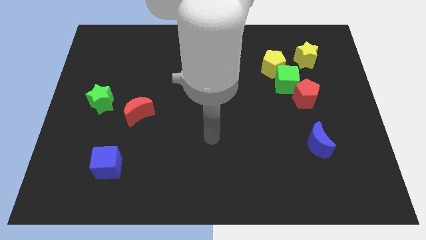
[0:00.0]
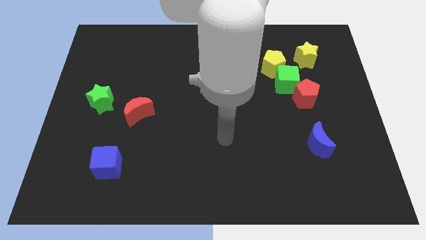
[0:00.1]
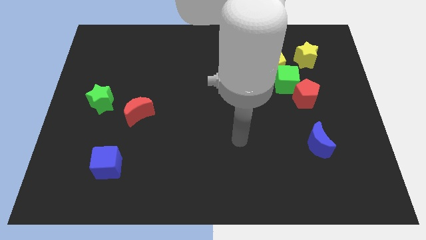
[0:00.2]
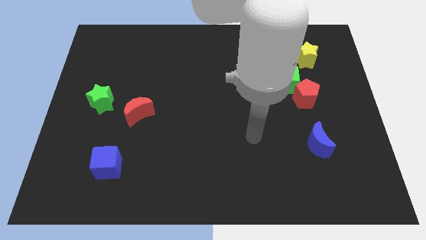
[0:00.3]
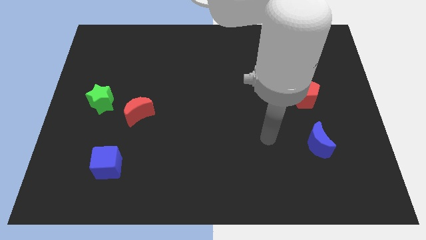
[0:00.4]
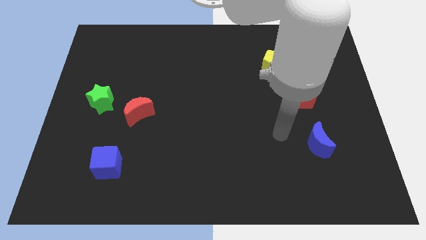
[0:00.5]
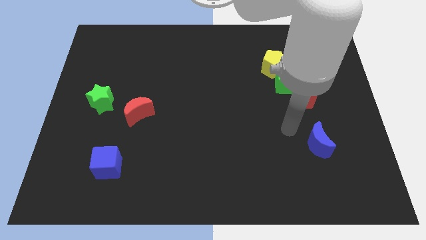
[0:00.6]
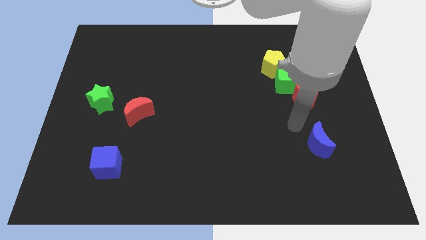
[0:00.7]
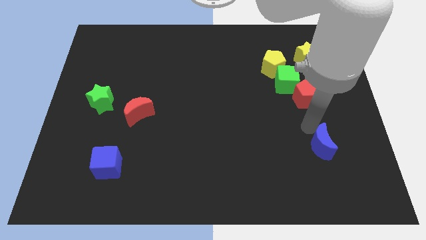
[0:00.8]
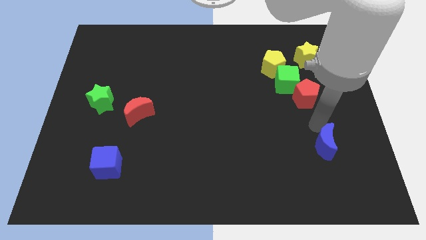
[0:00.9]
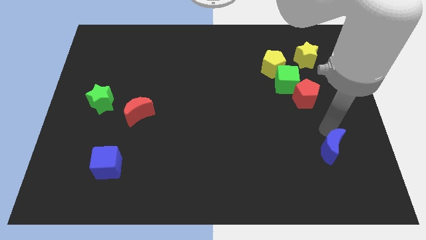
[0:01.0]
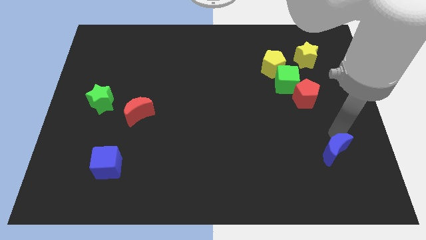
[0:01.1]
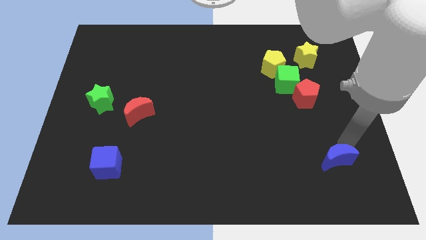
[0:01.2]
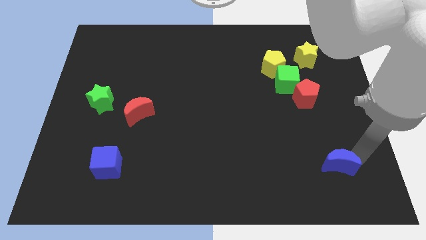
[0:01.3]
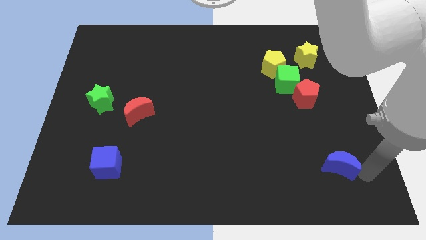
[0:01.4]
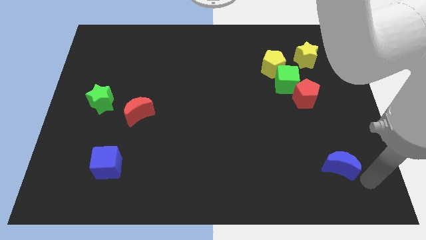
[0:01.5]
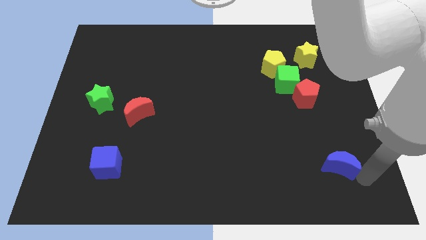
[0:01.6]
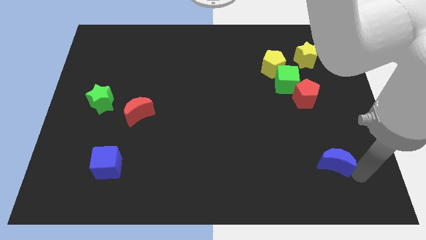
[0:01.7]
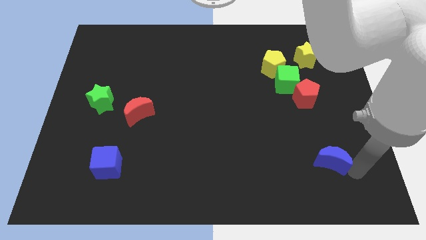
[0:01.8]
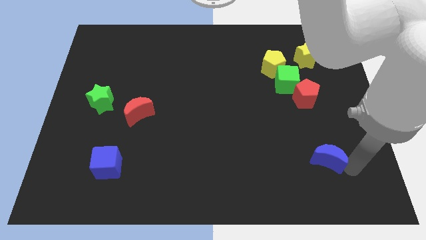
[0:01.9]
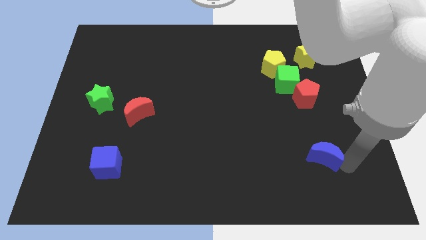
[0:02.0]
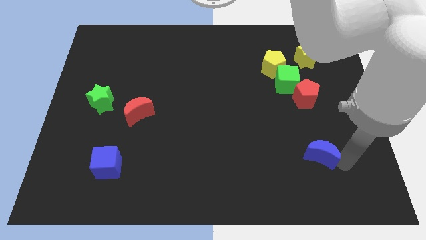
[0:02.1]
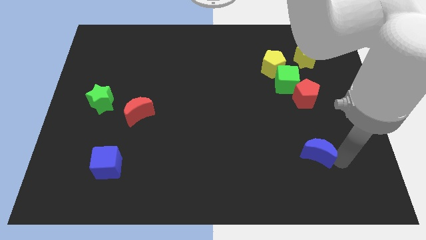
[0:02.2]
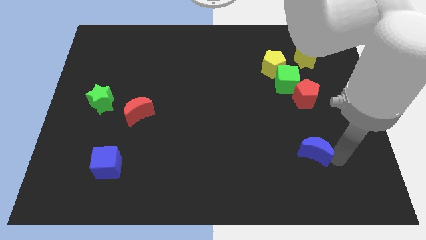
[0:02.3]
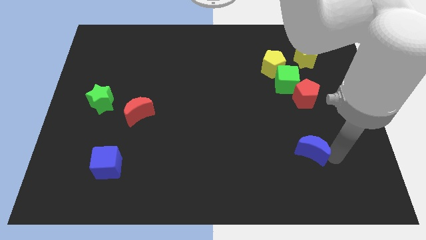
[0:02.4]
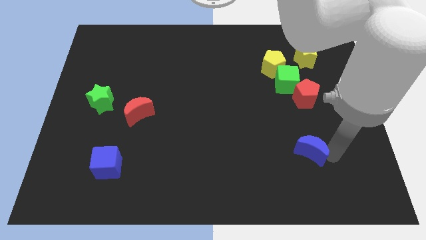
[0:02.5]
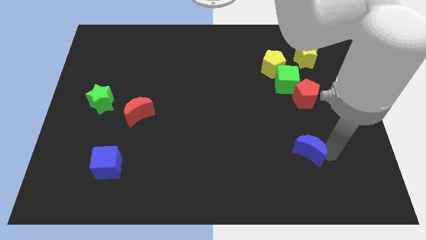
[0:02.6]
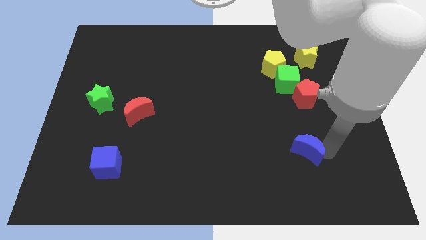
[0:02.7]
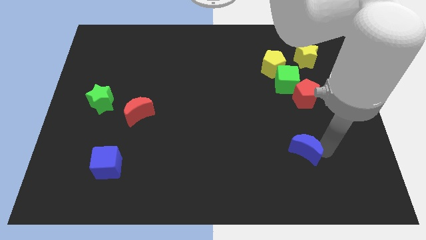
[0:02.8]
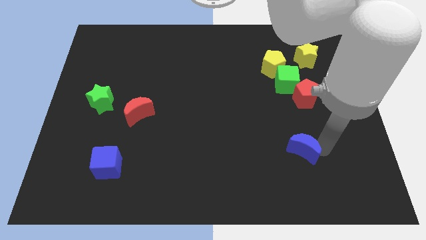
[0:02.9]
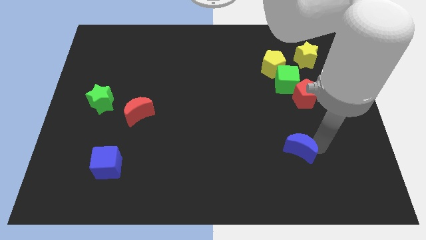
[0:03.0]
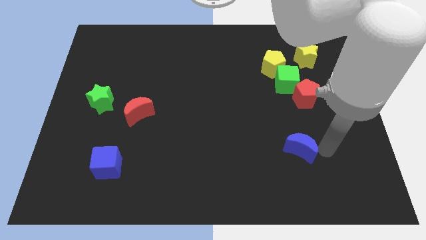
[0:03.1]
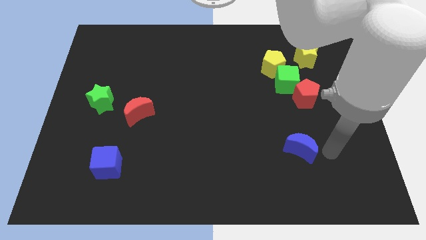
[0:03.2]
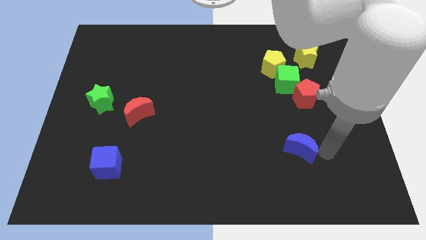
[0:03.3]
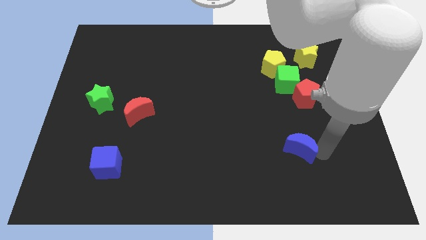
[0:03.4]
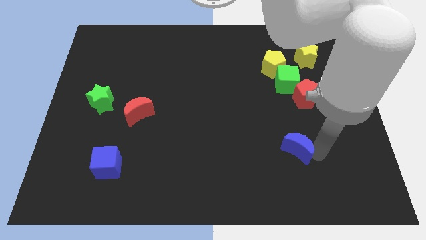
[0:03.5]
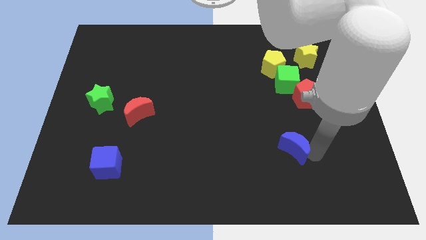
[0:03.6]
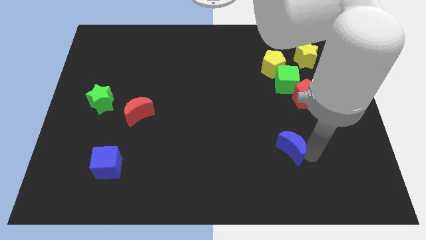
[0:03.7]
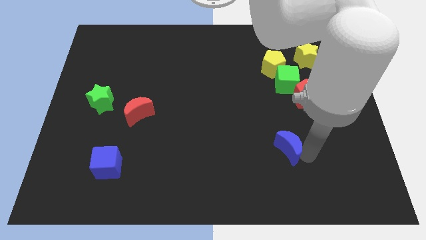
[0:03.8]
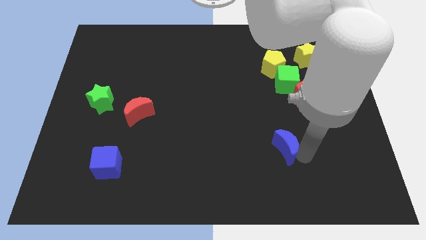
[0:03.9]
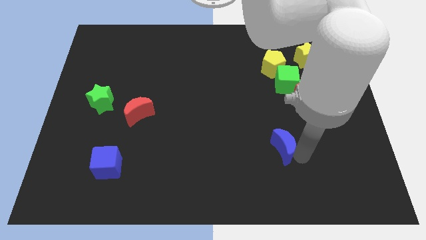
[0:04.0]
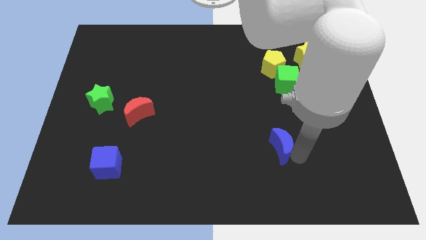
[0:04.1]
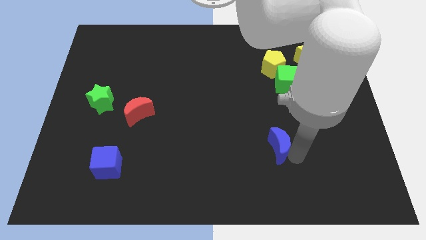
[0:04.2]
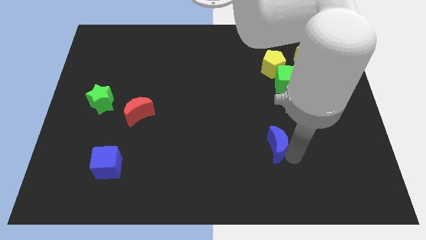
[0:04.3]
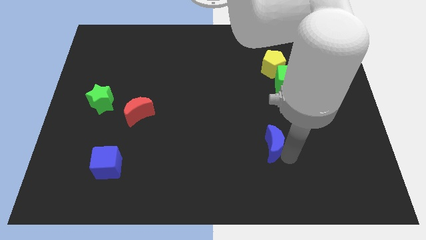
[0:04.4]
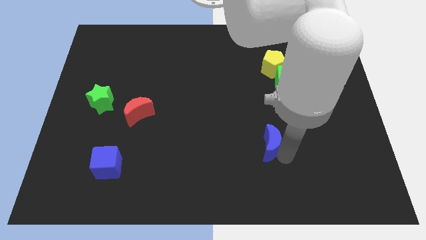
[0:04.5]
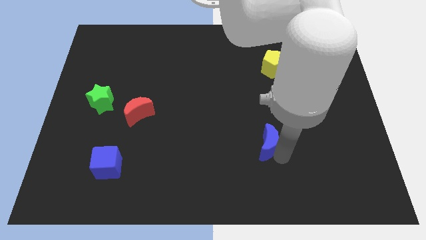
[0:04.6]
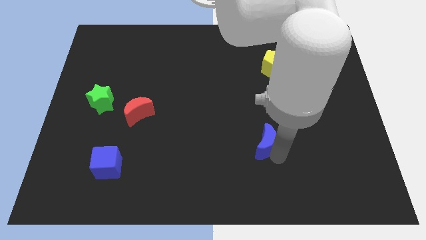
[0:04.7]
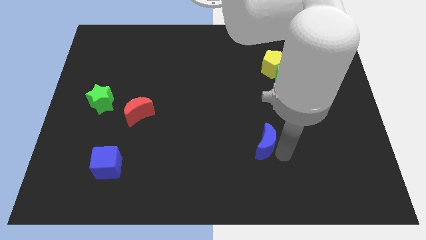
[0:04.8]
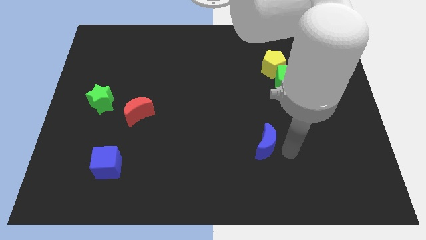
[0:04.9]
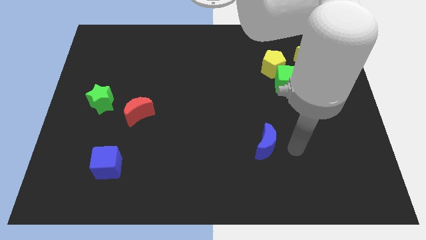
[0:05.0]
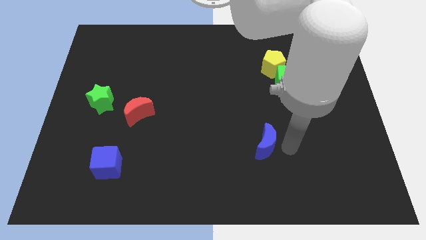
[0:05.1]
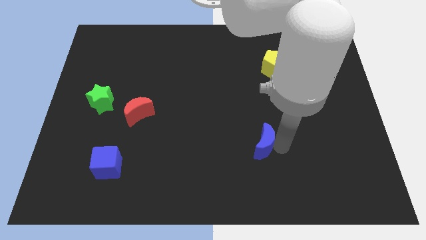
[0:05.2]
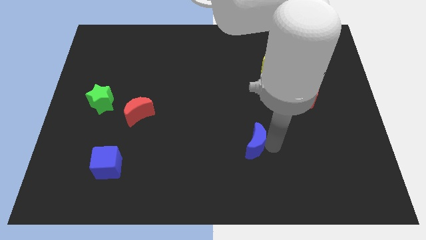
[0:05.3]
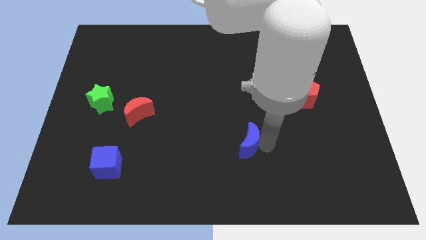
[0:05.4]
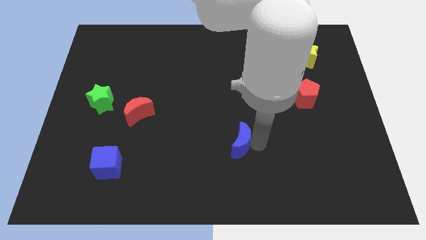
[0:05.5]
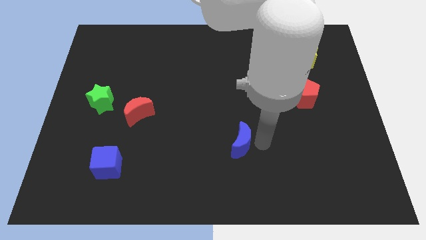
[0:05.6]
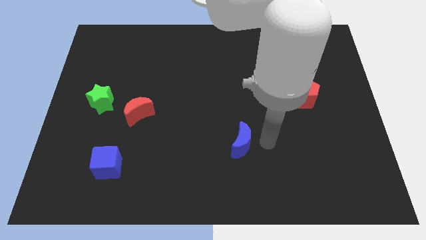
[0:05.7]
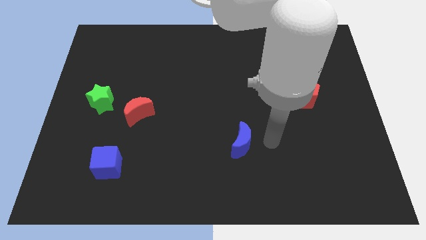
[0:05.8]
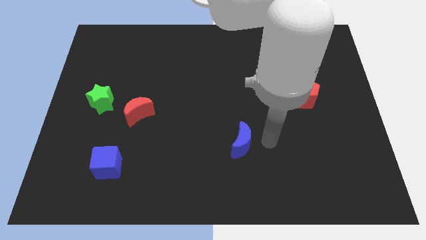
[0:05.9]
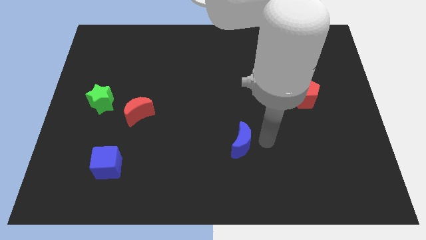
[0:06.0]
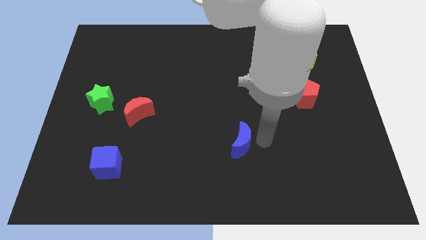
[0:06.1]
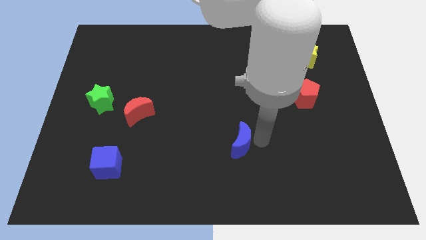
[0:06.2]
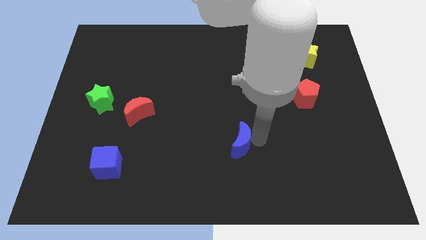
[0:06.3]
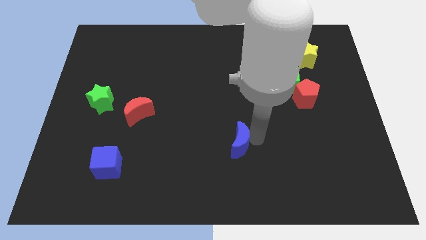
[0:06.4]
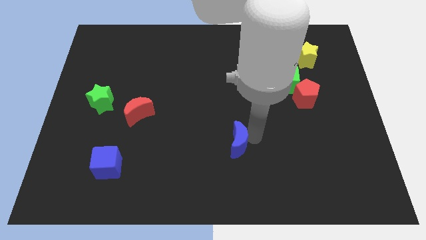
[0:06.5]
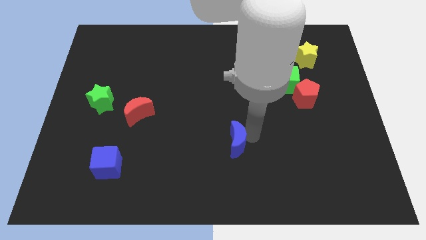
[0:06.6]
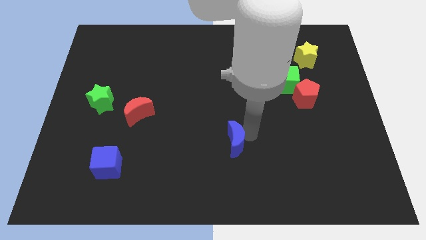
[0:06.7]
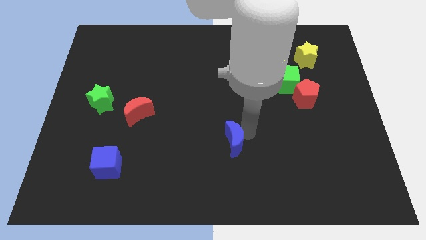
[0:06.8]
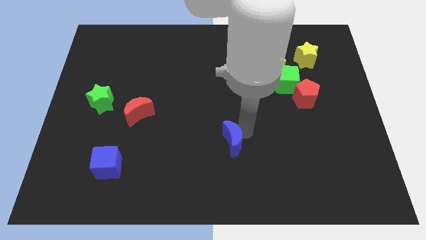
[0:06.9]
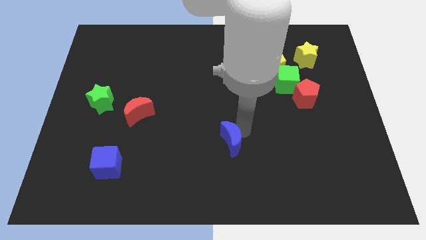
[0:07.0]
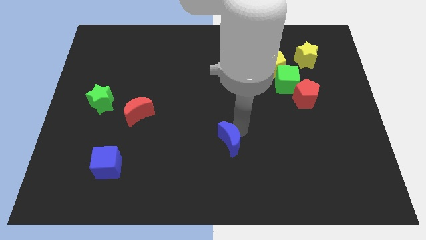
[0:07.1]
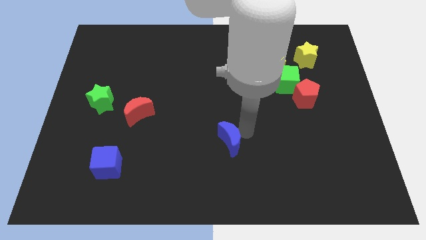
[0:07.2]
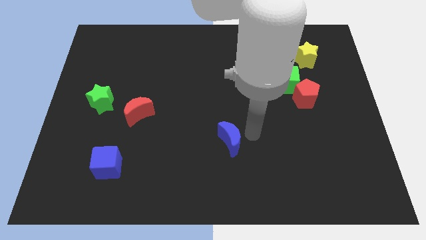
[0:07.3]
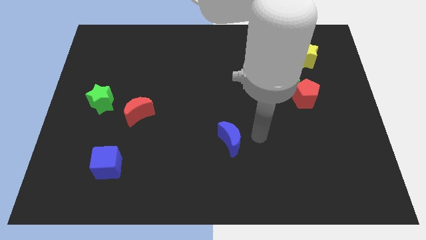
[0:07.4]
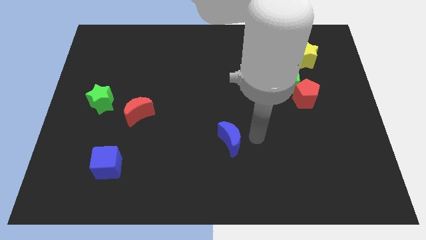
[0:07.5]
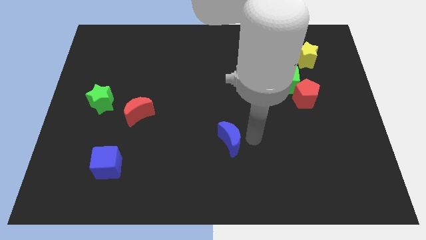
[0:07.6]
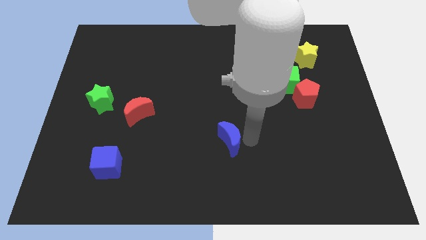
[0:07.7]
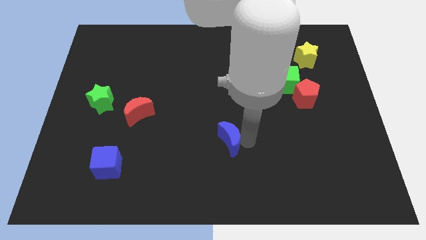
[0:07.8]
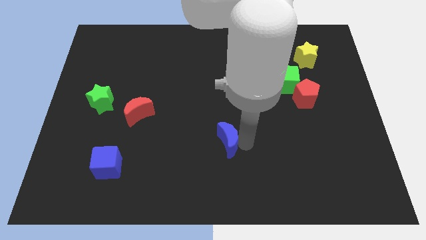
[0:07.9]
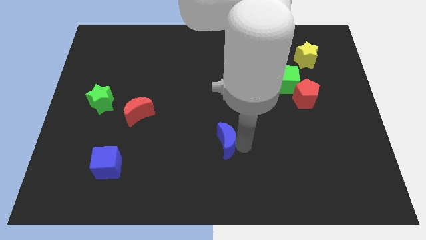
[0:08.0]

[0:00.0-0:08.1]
move the blue moon left
